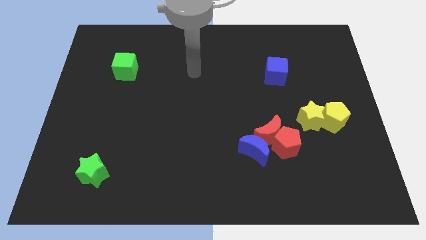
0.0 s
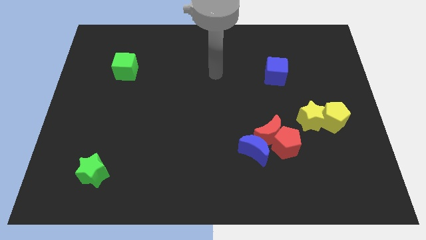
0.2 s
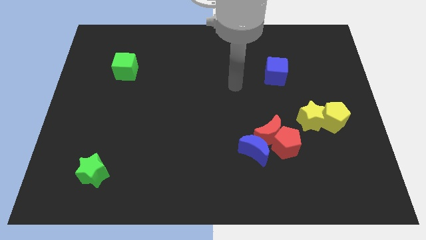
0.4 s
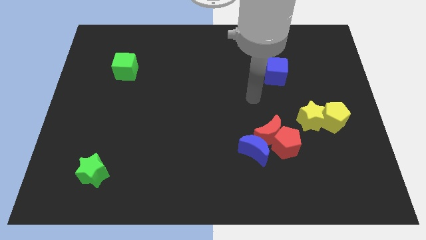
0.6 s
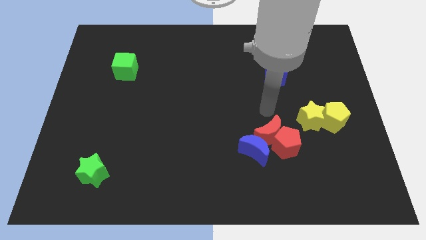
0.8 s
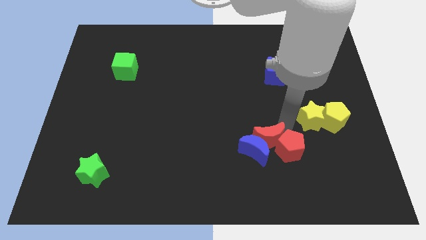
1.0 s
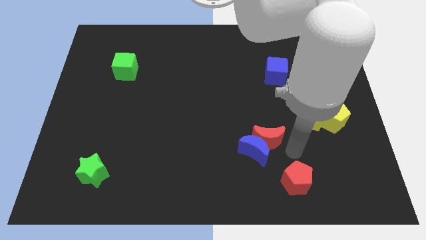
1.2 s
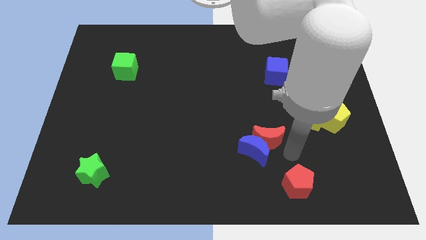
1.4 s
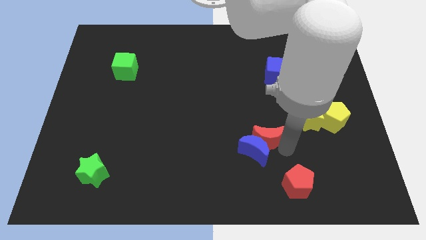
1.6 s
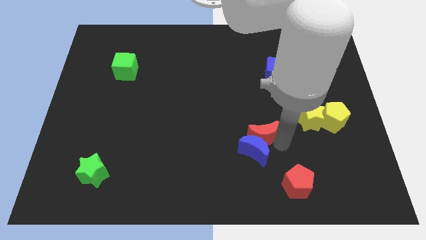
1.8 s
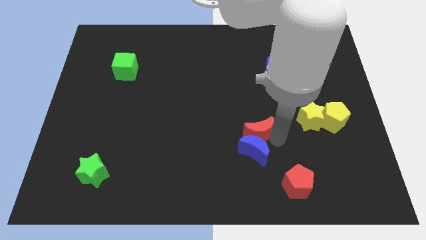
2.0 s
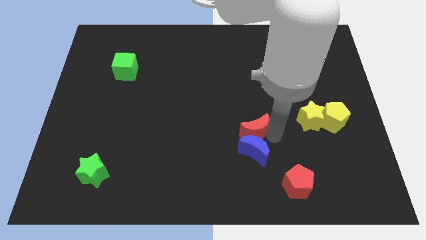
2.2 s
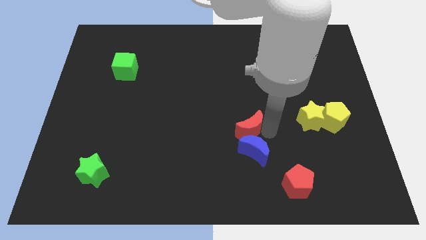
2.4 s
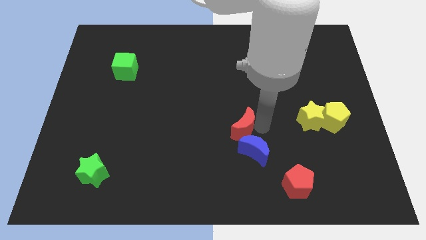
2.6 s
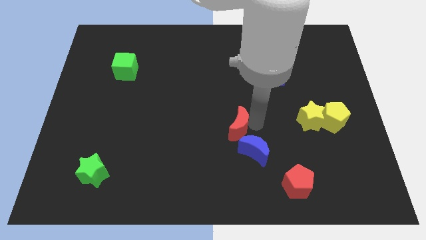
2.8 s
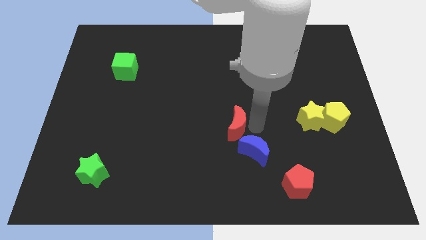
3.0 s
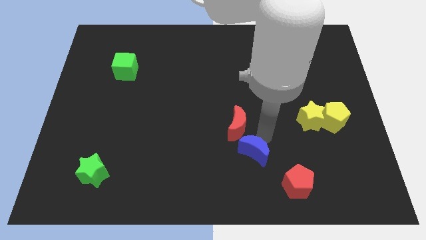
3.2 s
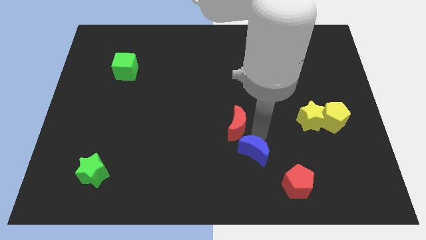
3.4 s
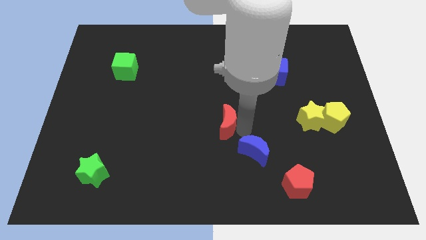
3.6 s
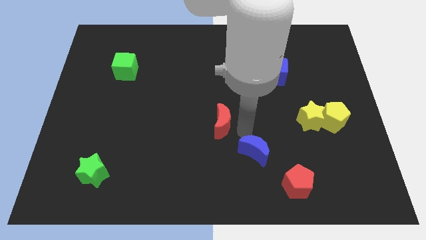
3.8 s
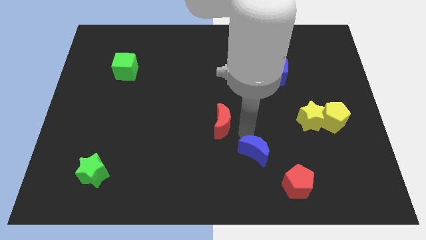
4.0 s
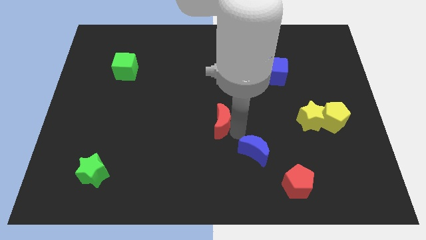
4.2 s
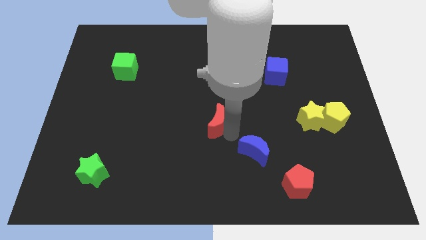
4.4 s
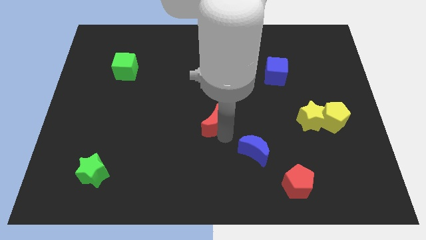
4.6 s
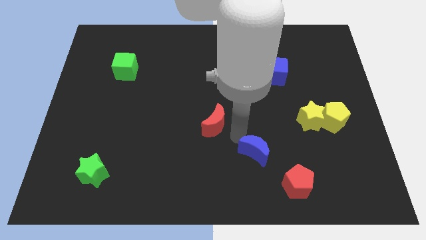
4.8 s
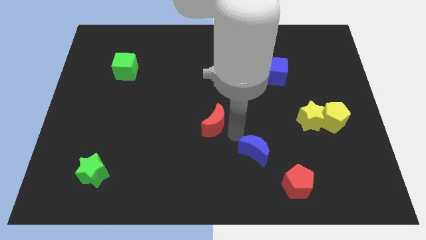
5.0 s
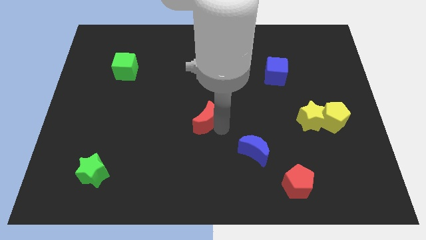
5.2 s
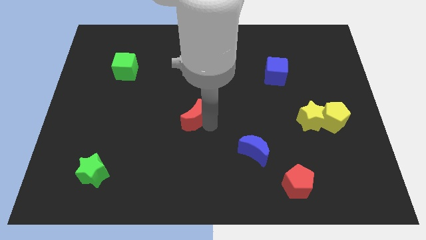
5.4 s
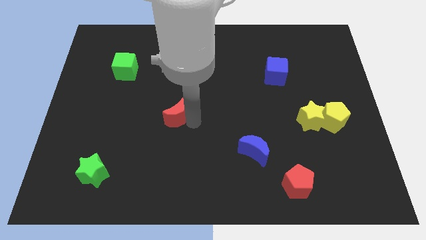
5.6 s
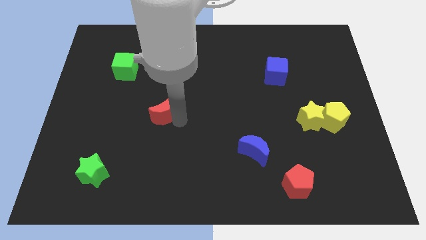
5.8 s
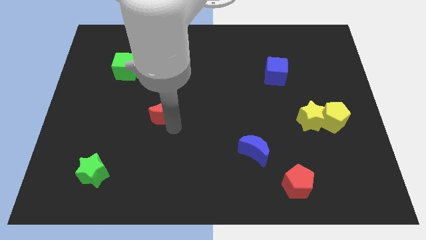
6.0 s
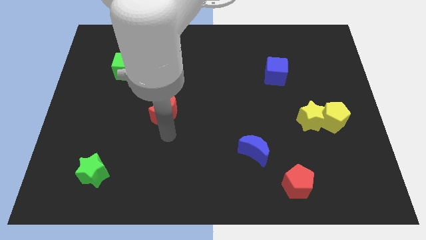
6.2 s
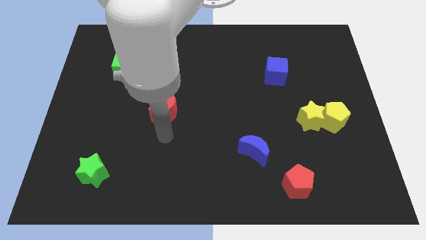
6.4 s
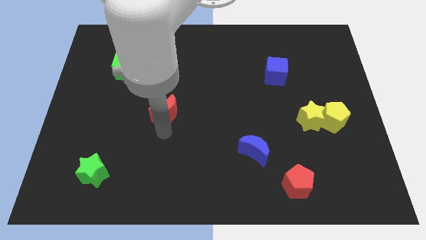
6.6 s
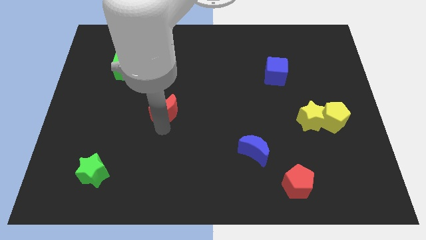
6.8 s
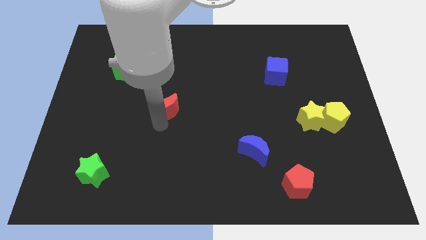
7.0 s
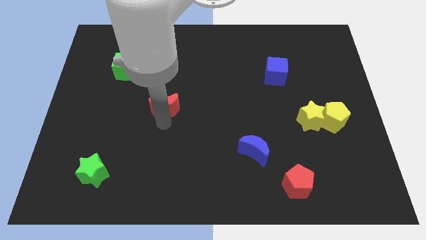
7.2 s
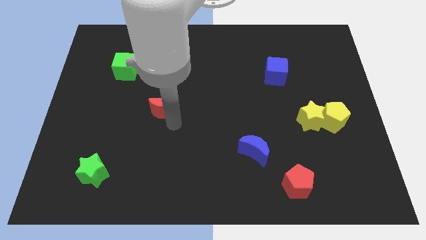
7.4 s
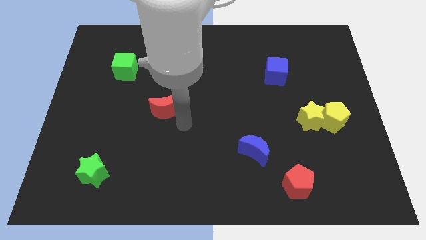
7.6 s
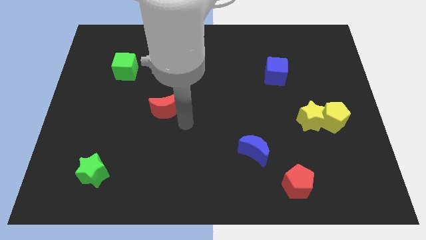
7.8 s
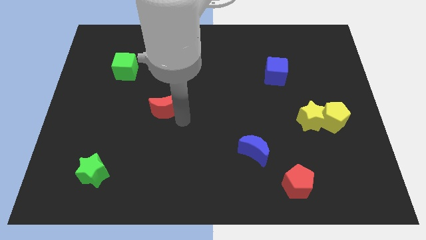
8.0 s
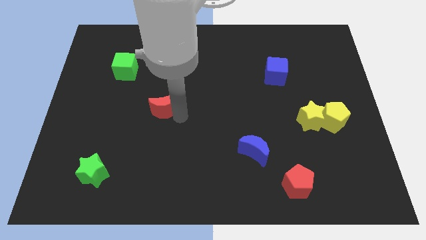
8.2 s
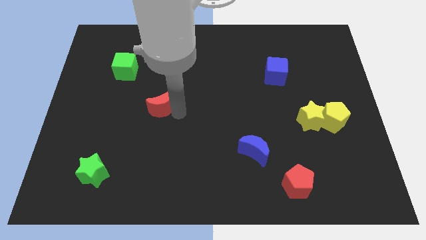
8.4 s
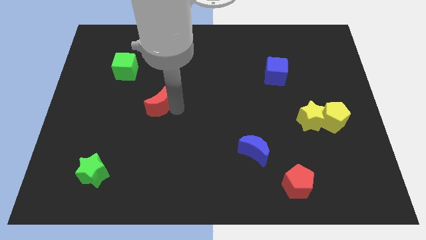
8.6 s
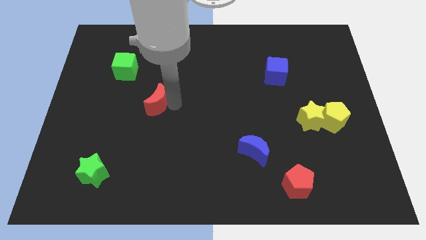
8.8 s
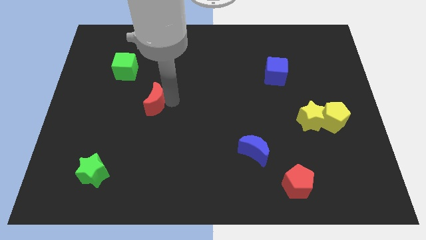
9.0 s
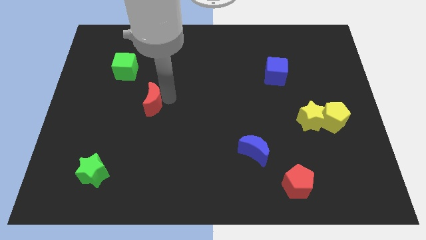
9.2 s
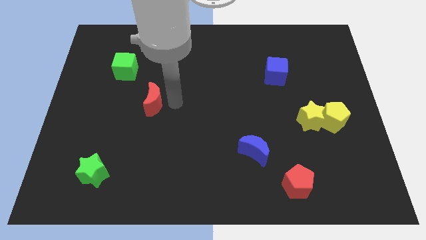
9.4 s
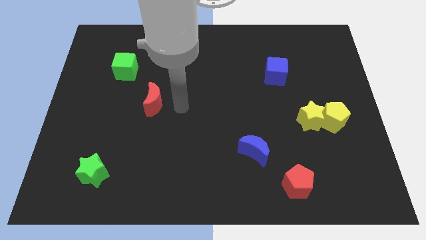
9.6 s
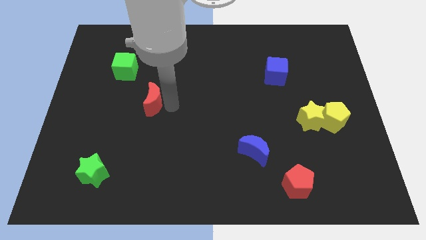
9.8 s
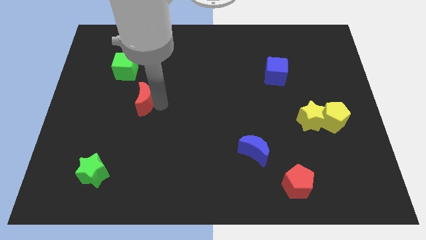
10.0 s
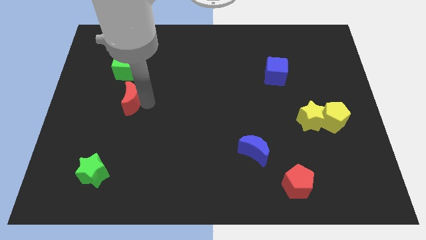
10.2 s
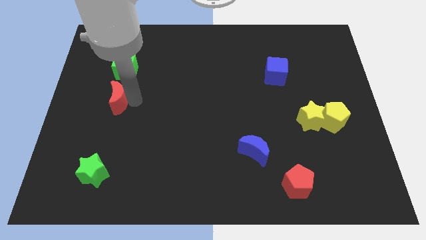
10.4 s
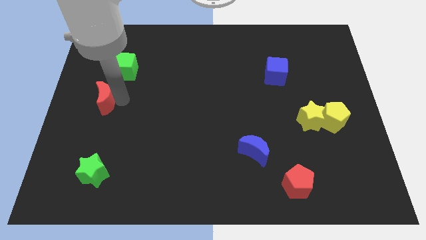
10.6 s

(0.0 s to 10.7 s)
slide the red moon to the left side
